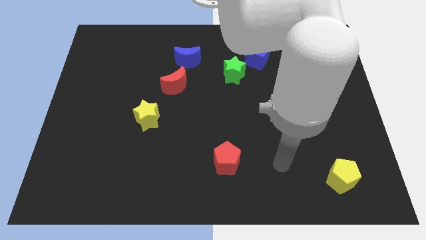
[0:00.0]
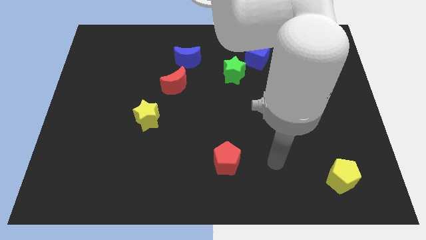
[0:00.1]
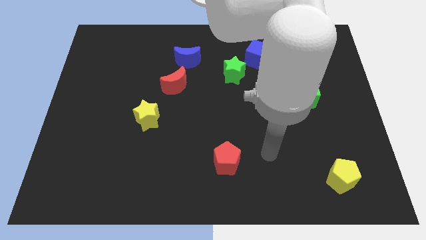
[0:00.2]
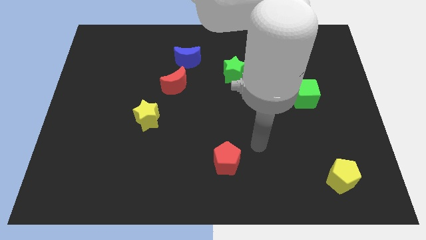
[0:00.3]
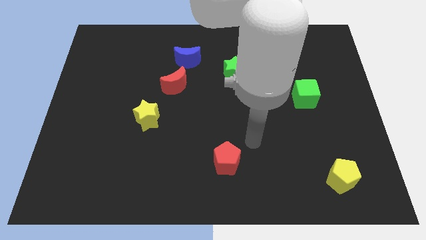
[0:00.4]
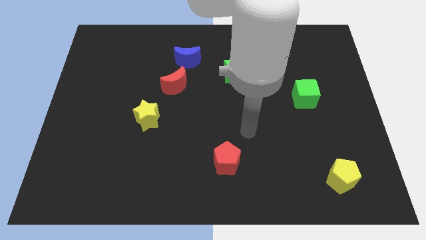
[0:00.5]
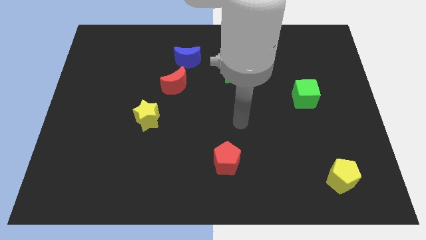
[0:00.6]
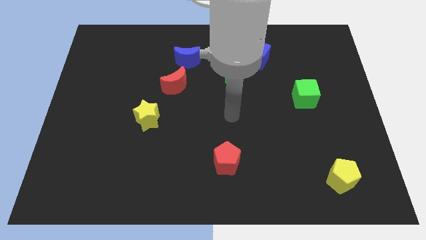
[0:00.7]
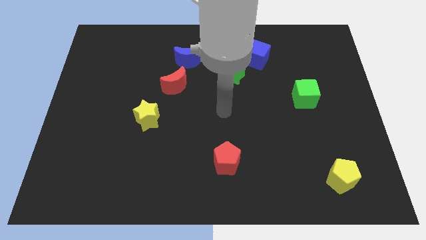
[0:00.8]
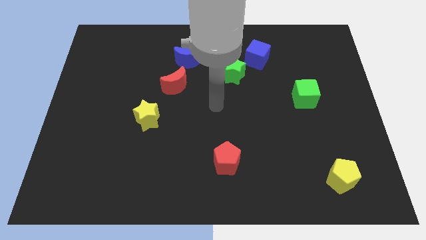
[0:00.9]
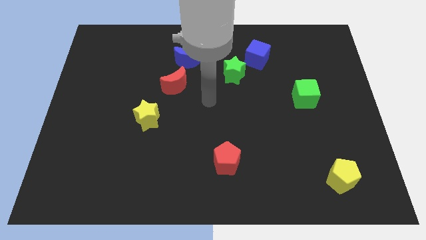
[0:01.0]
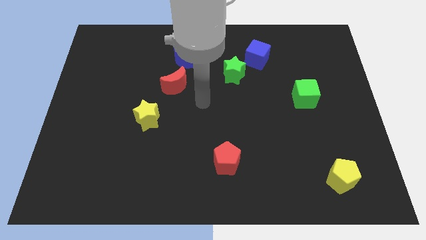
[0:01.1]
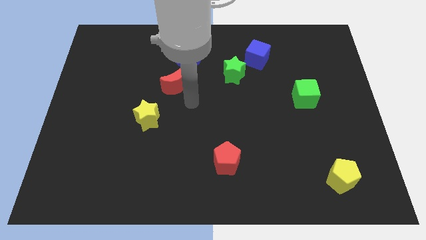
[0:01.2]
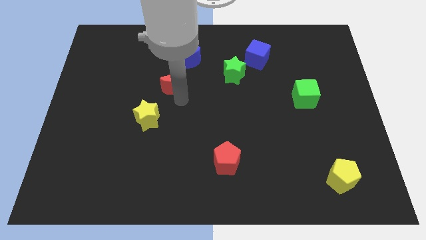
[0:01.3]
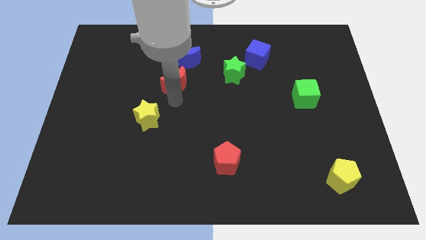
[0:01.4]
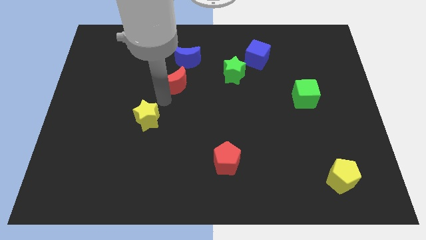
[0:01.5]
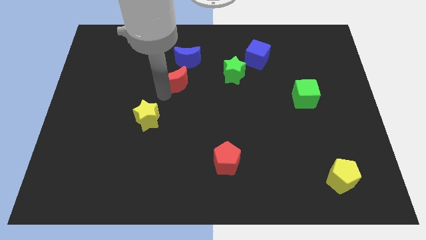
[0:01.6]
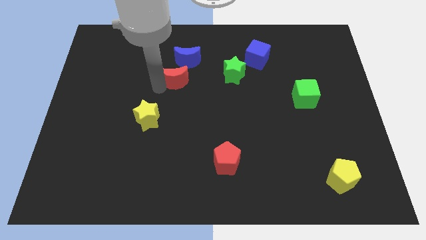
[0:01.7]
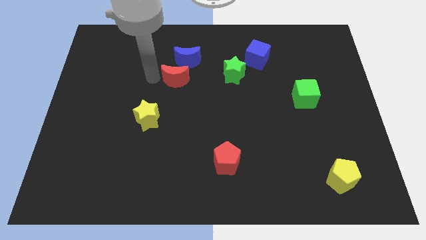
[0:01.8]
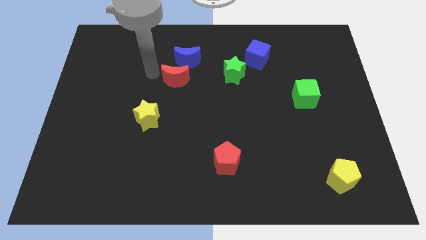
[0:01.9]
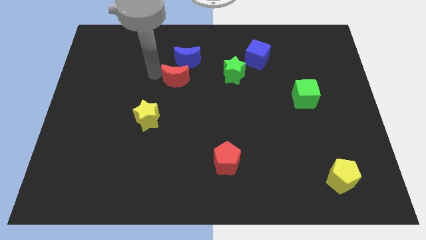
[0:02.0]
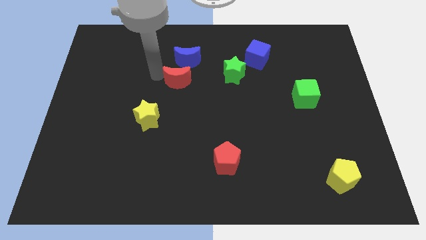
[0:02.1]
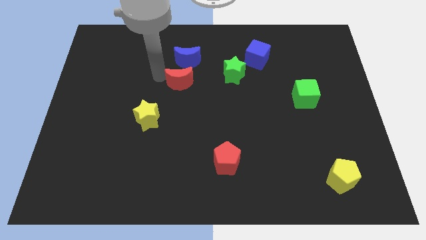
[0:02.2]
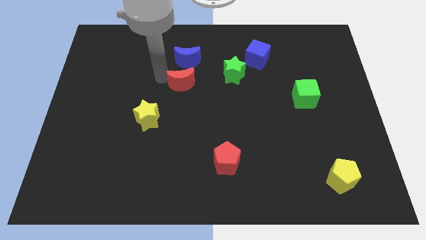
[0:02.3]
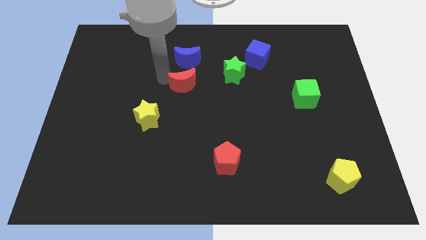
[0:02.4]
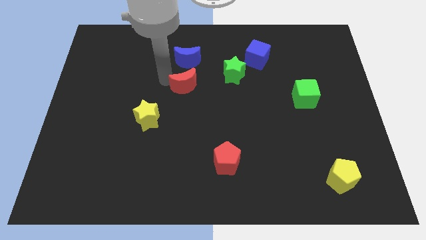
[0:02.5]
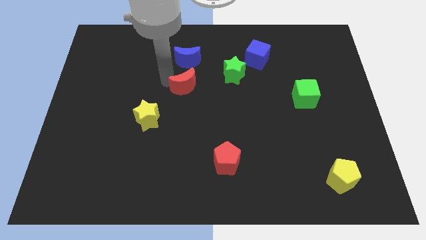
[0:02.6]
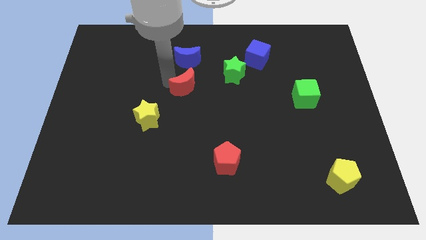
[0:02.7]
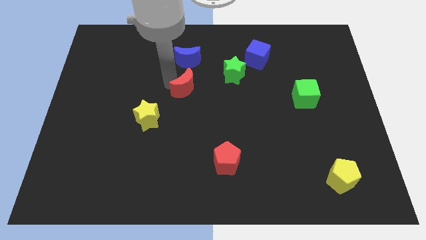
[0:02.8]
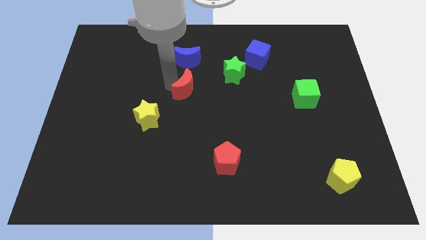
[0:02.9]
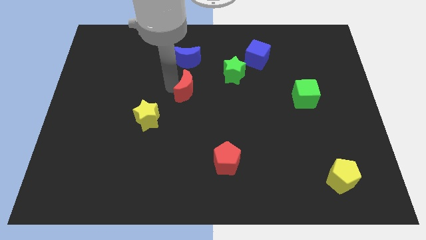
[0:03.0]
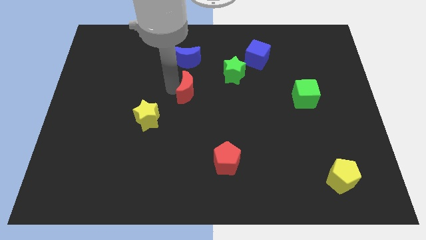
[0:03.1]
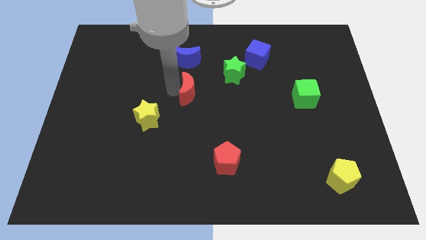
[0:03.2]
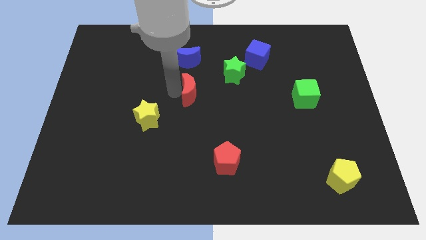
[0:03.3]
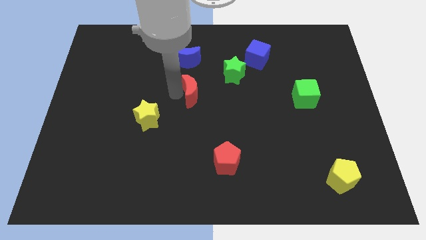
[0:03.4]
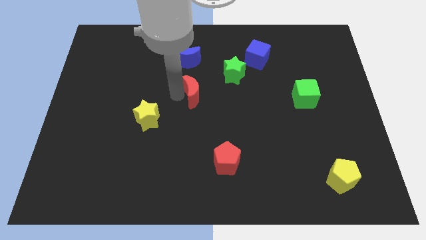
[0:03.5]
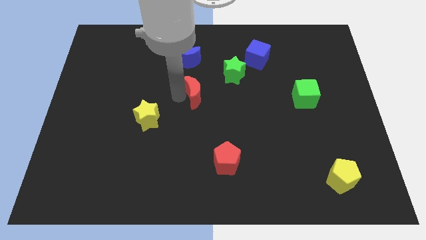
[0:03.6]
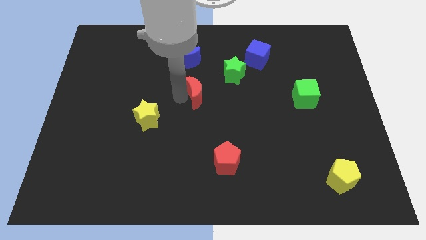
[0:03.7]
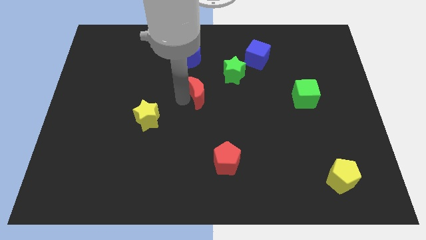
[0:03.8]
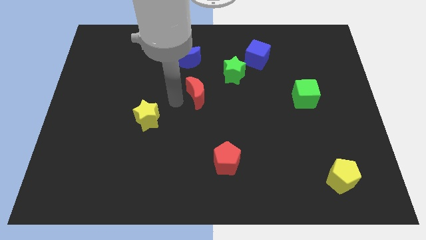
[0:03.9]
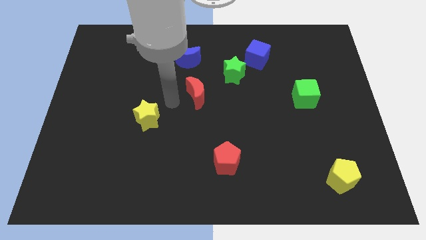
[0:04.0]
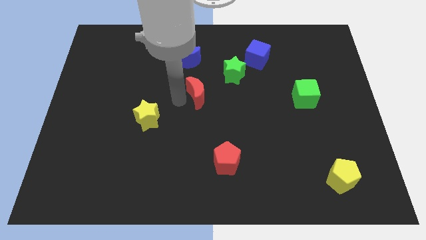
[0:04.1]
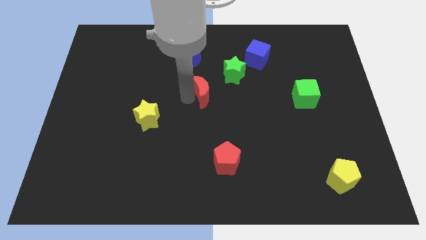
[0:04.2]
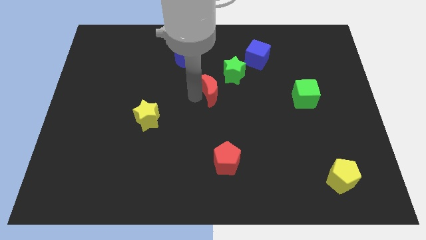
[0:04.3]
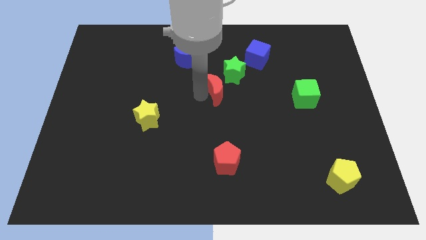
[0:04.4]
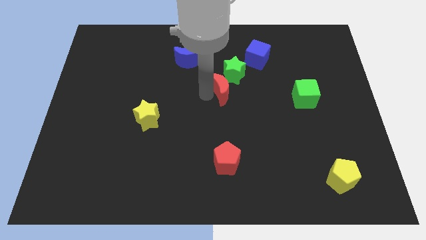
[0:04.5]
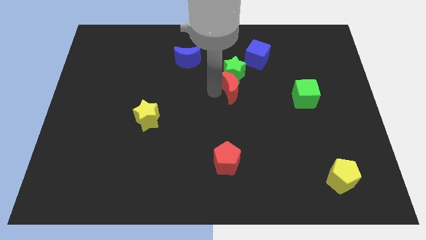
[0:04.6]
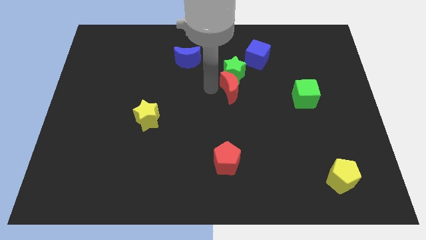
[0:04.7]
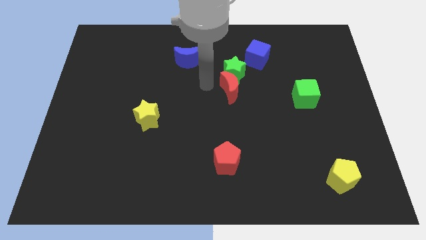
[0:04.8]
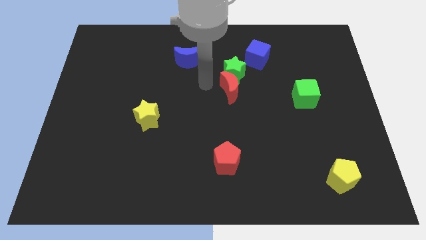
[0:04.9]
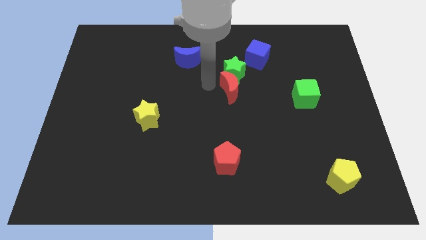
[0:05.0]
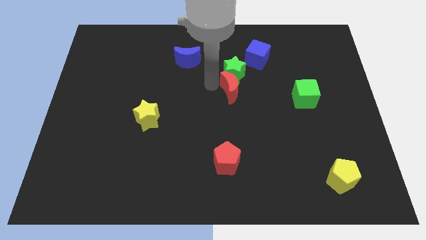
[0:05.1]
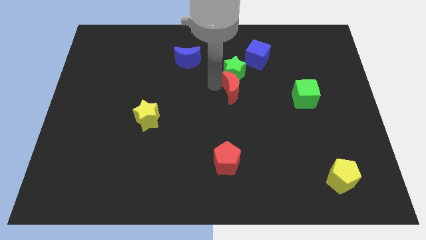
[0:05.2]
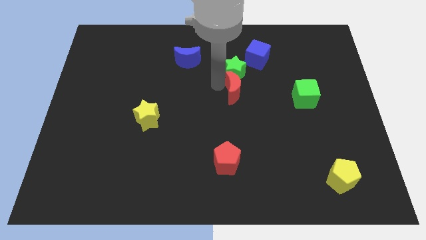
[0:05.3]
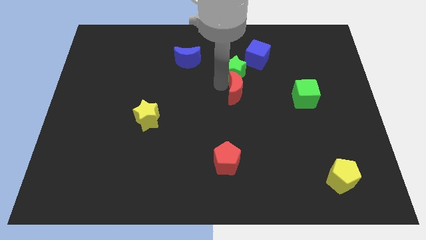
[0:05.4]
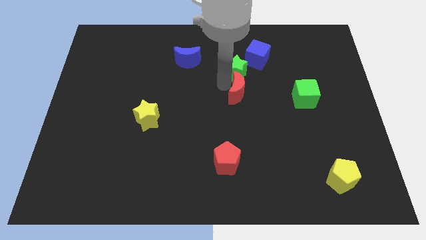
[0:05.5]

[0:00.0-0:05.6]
push the red moon to the left side of the green cube

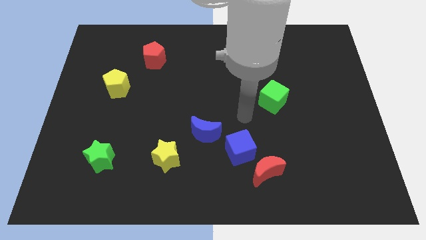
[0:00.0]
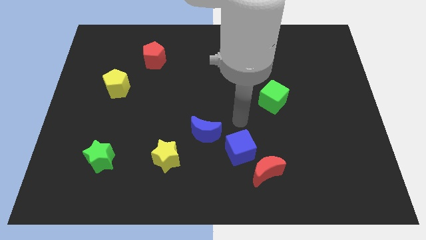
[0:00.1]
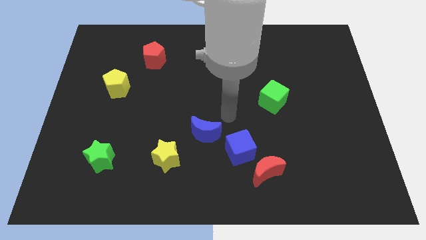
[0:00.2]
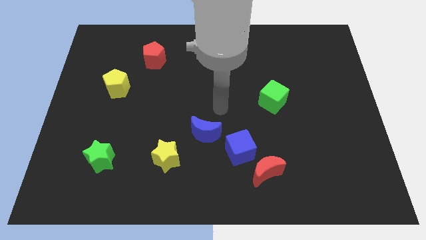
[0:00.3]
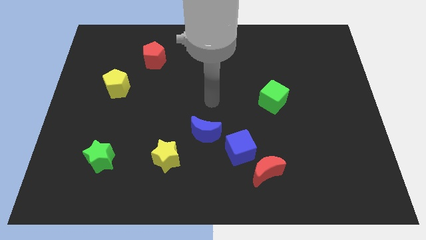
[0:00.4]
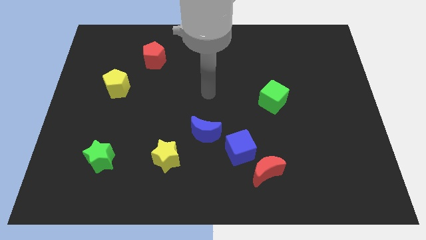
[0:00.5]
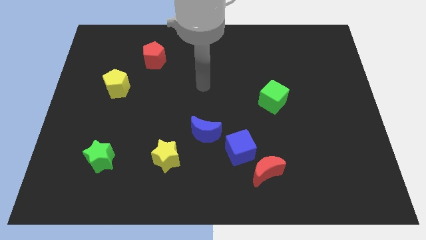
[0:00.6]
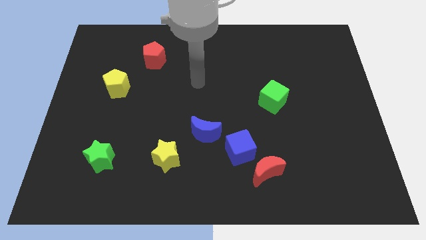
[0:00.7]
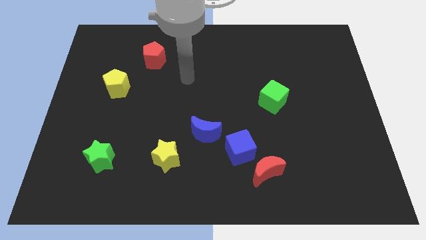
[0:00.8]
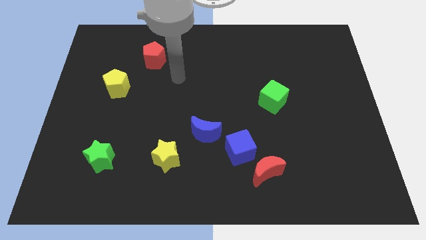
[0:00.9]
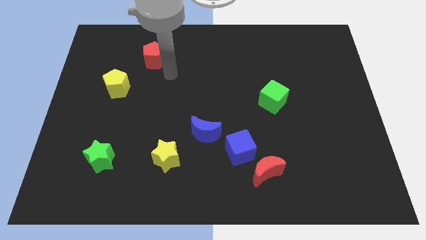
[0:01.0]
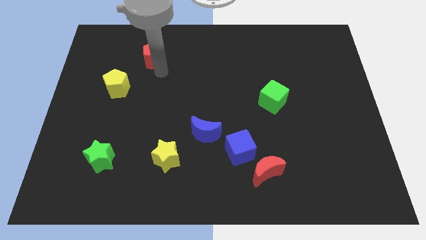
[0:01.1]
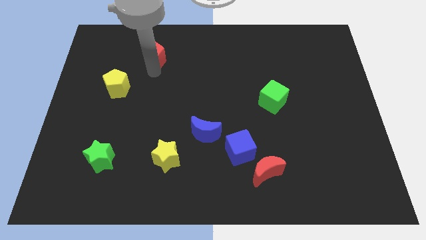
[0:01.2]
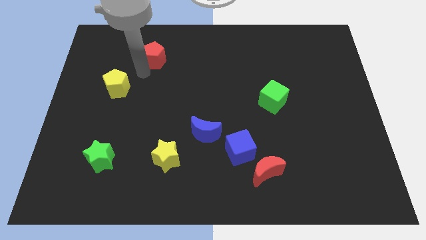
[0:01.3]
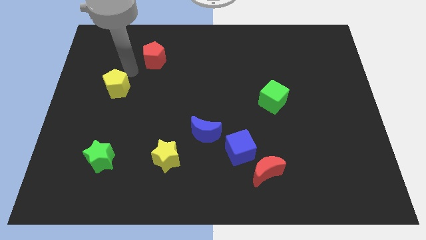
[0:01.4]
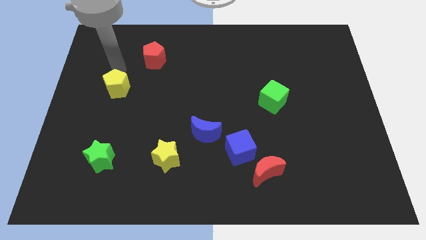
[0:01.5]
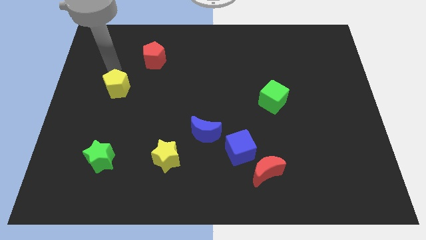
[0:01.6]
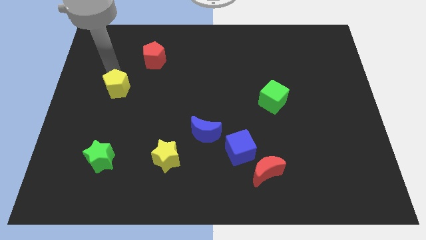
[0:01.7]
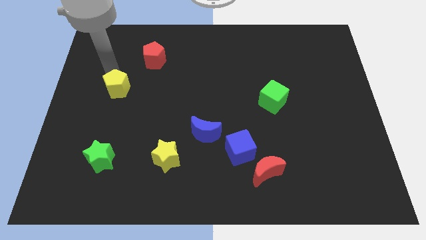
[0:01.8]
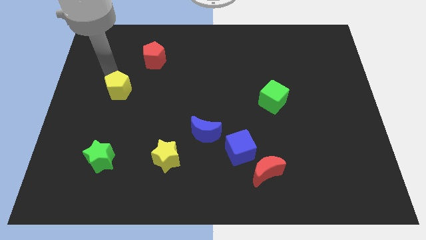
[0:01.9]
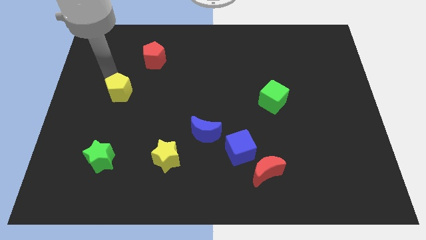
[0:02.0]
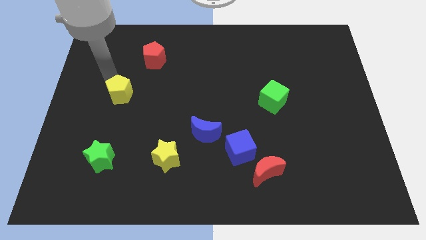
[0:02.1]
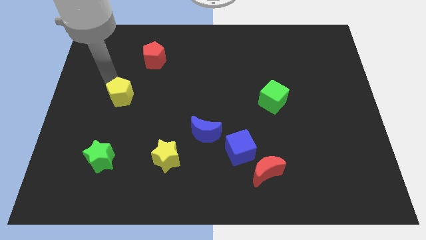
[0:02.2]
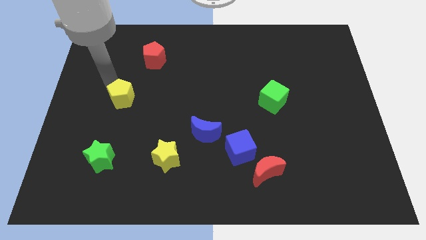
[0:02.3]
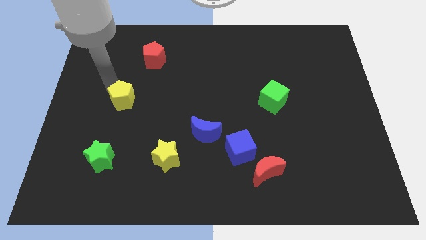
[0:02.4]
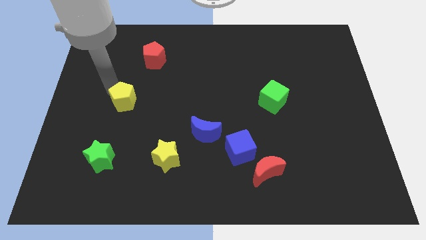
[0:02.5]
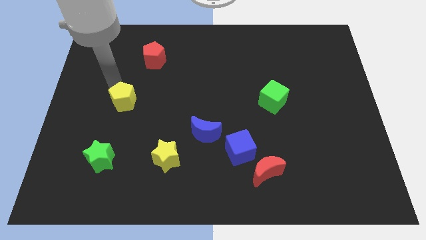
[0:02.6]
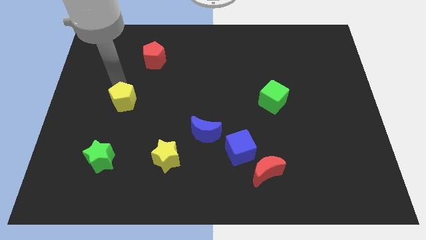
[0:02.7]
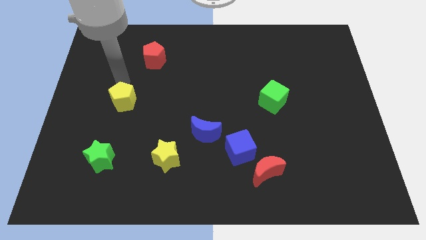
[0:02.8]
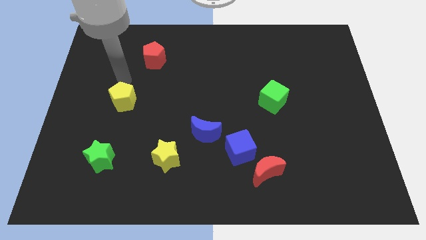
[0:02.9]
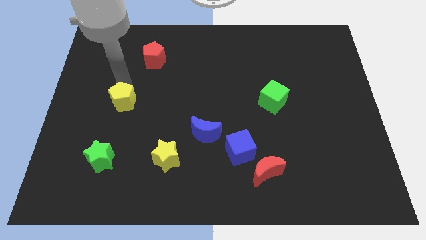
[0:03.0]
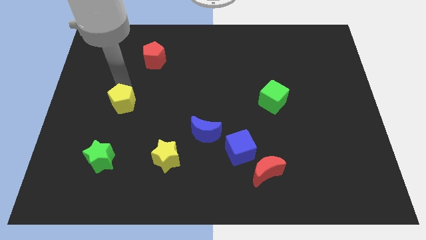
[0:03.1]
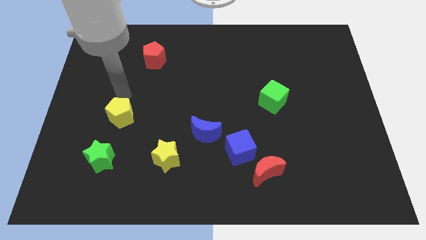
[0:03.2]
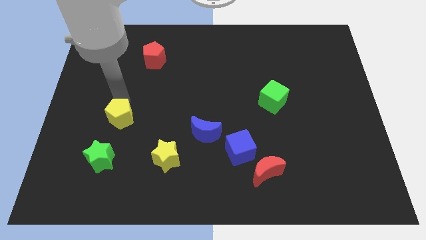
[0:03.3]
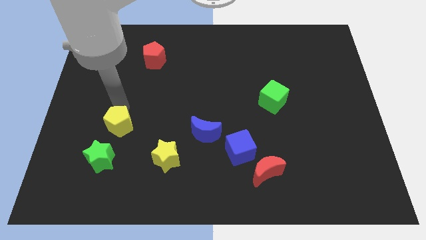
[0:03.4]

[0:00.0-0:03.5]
move the yellow pentagon to the top right side of the green star
